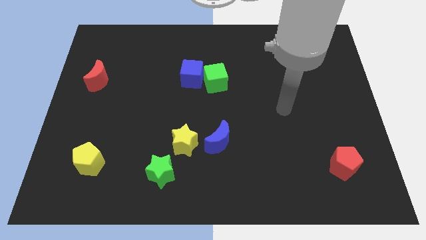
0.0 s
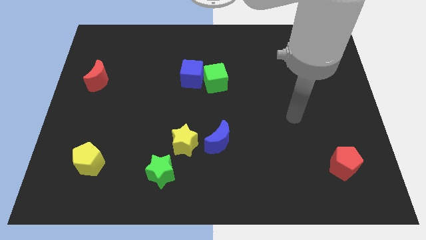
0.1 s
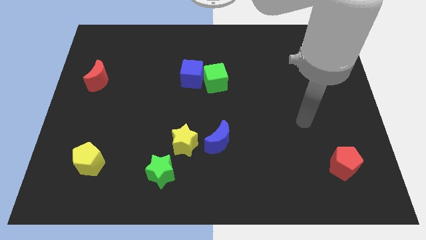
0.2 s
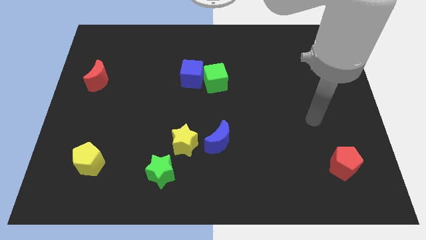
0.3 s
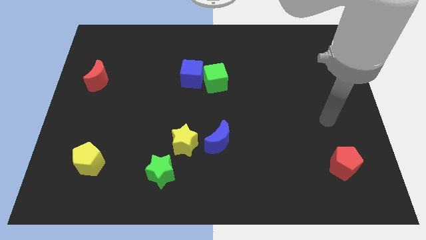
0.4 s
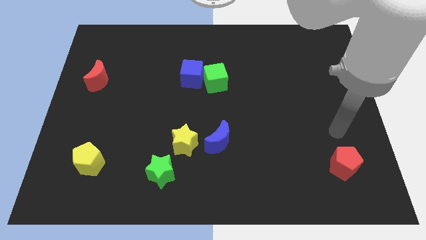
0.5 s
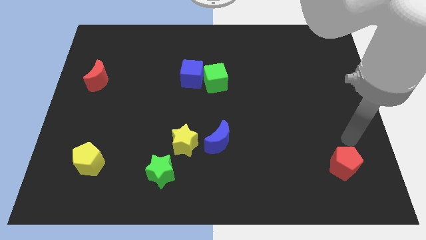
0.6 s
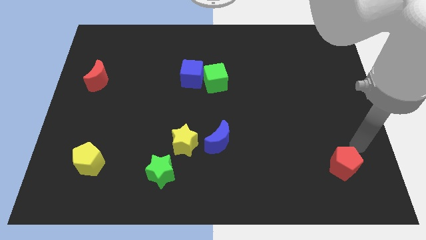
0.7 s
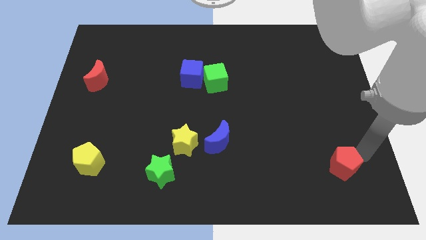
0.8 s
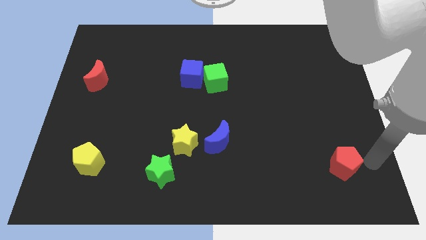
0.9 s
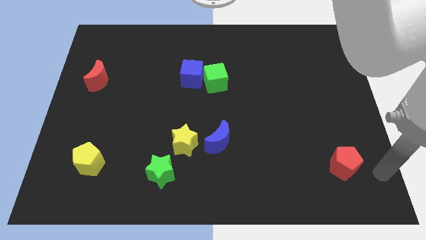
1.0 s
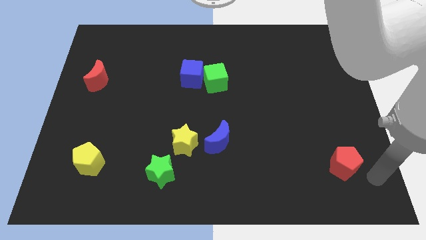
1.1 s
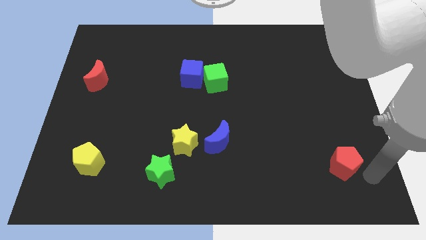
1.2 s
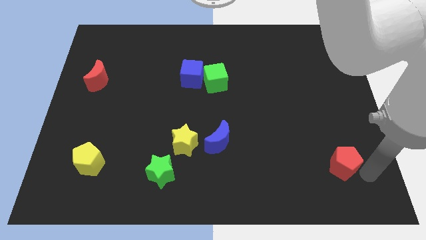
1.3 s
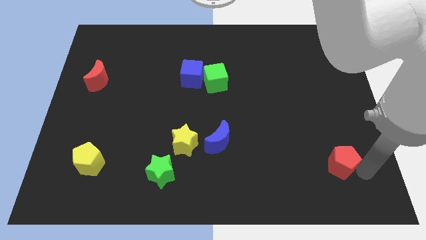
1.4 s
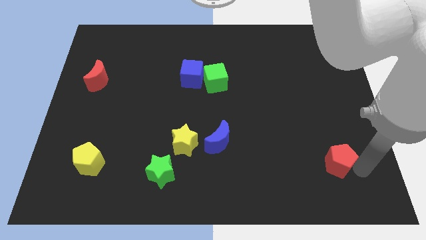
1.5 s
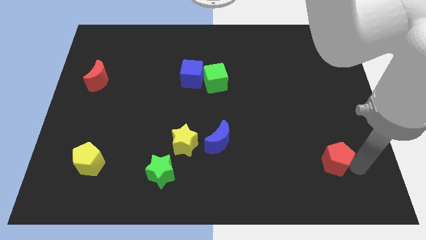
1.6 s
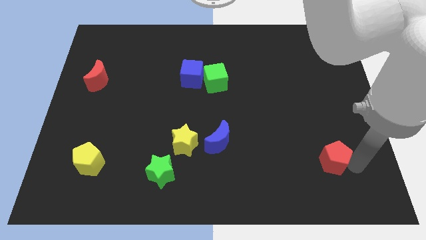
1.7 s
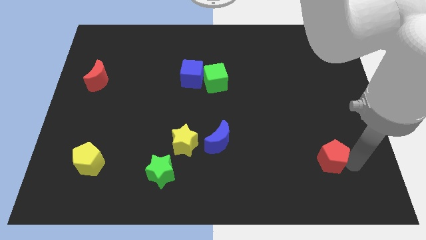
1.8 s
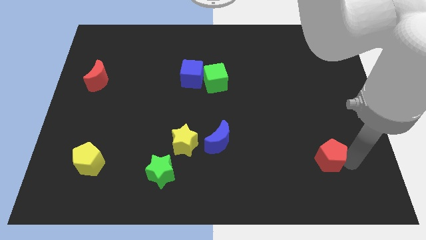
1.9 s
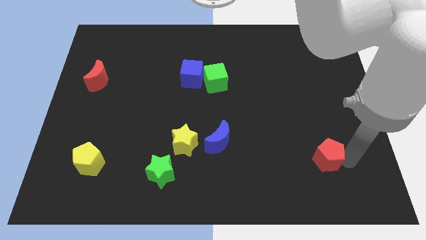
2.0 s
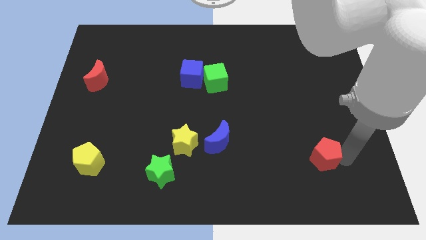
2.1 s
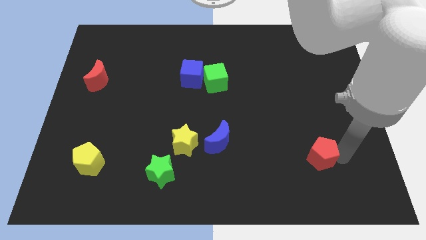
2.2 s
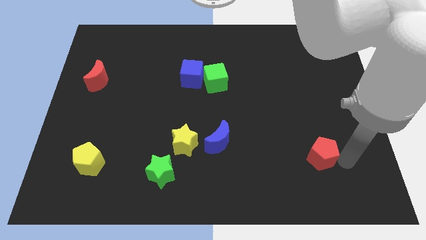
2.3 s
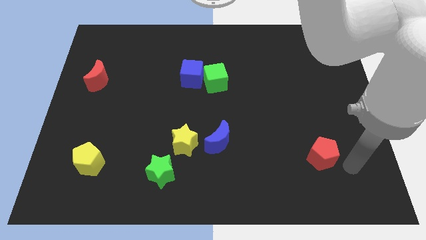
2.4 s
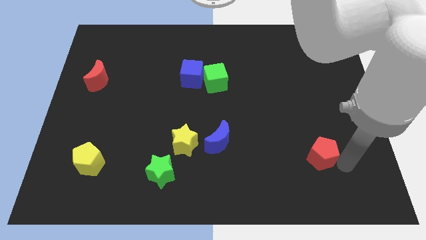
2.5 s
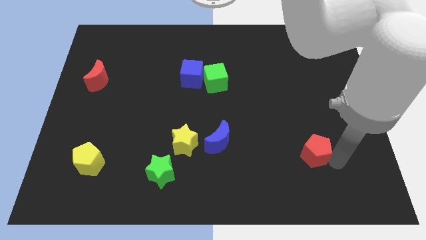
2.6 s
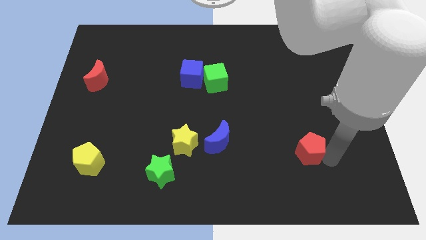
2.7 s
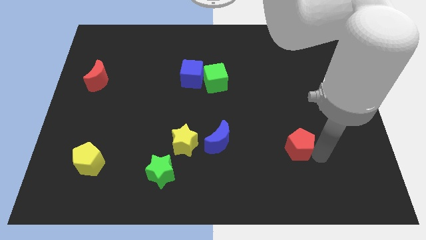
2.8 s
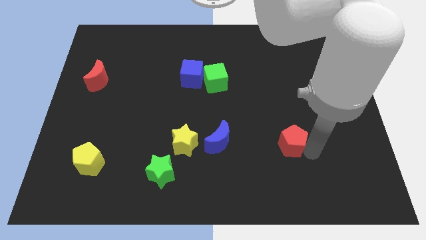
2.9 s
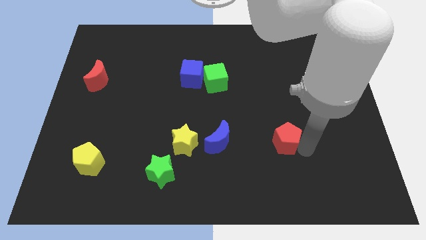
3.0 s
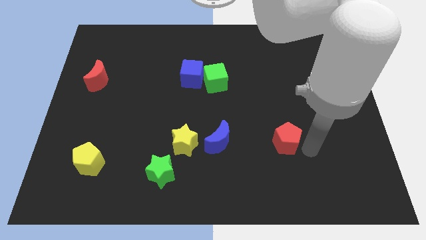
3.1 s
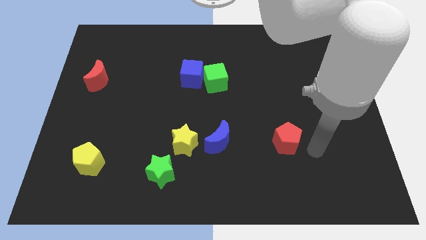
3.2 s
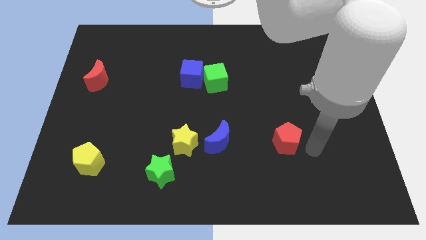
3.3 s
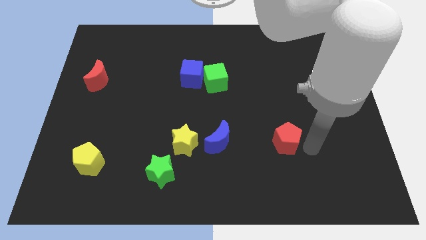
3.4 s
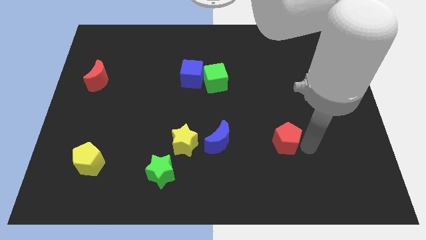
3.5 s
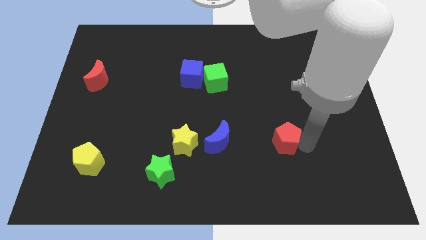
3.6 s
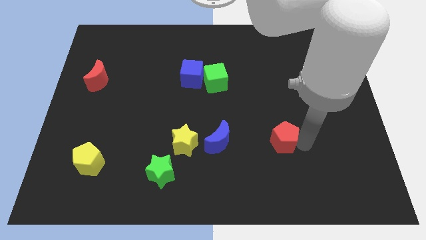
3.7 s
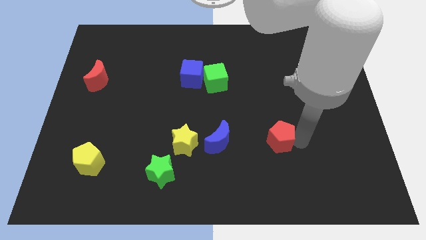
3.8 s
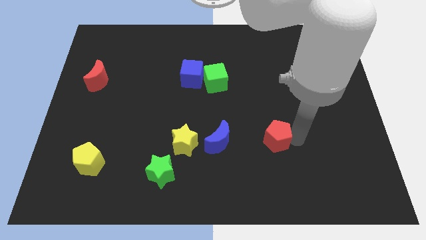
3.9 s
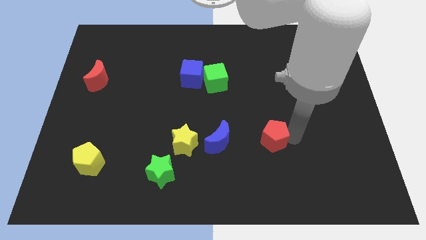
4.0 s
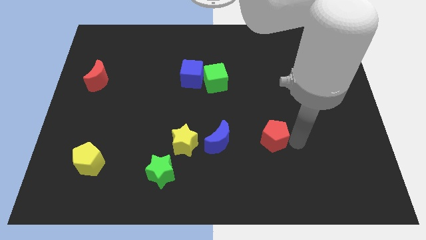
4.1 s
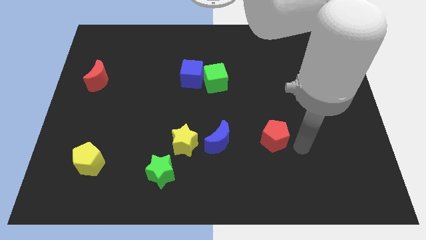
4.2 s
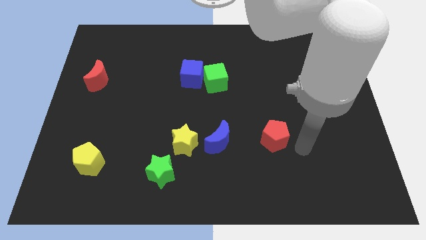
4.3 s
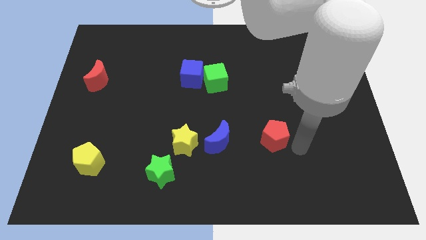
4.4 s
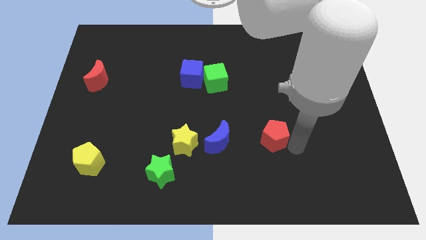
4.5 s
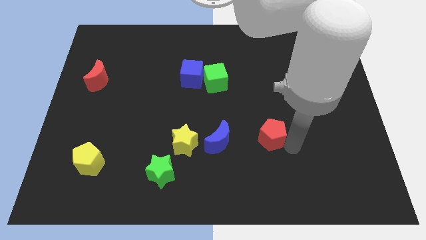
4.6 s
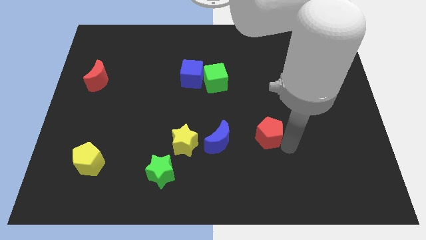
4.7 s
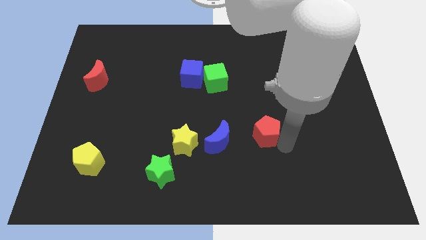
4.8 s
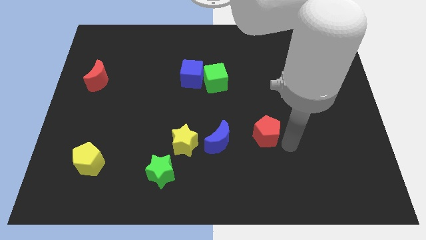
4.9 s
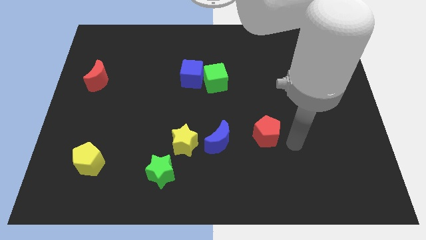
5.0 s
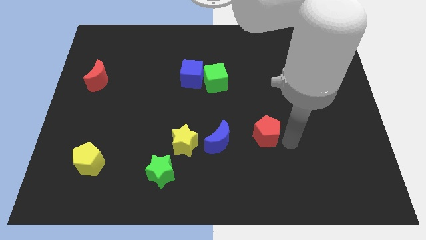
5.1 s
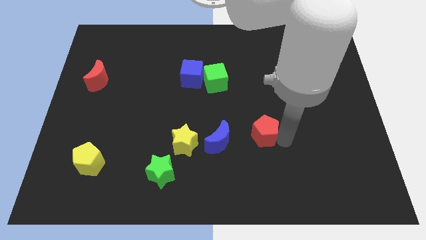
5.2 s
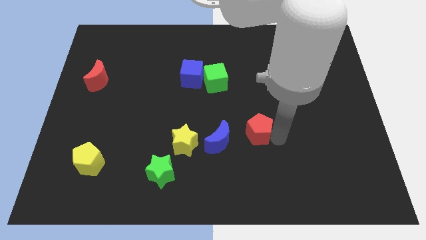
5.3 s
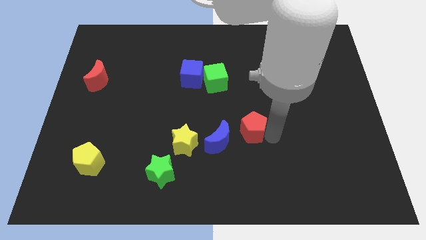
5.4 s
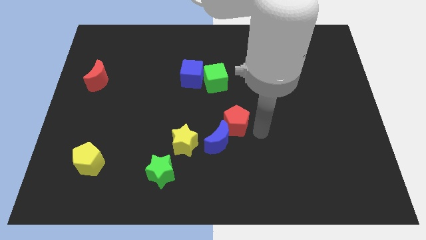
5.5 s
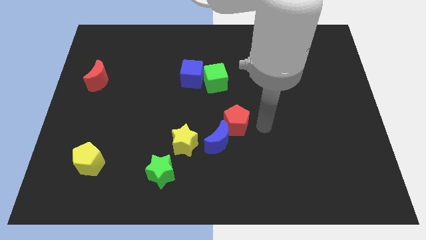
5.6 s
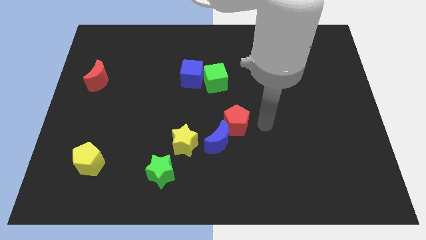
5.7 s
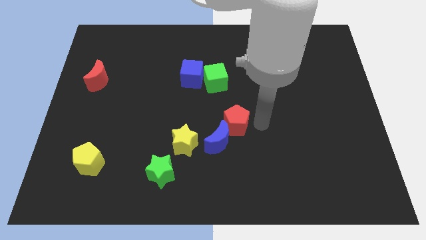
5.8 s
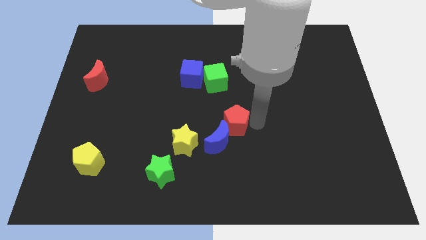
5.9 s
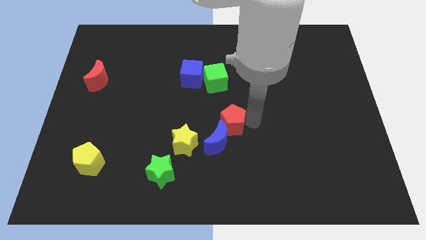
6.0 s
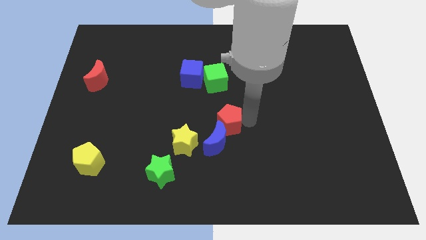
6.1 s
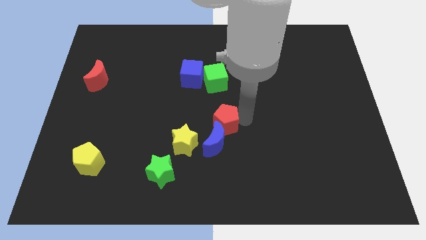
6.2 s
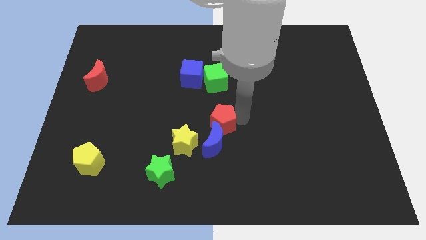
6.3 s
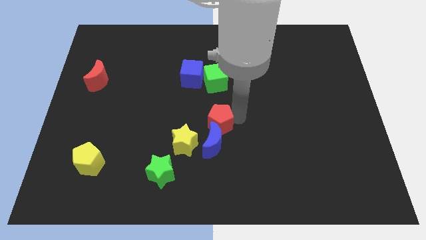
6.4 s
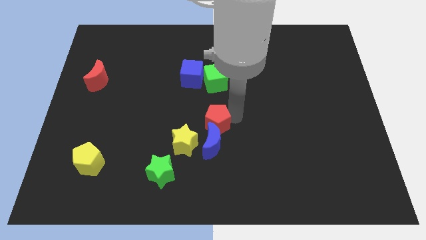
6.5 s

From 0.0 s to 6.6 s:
slide the red pentagon to the top left of the blue moon
